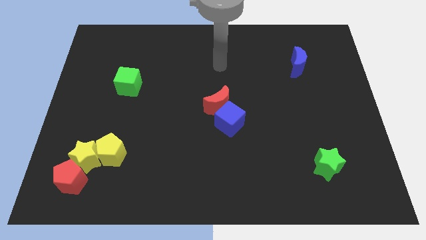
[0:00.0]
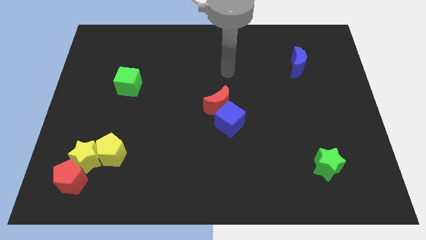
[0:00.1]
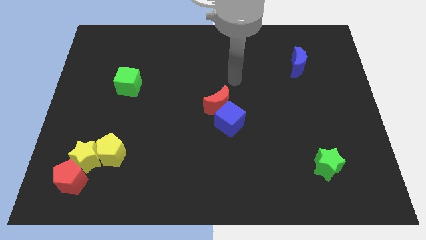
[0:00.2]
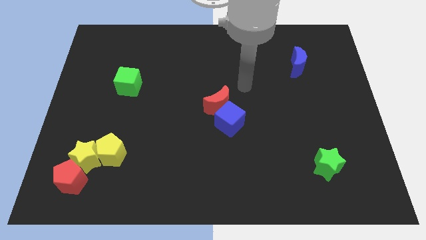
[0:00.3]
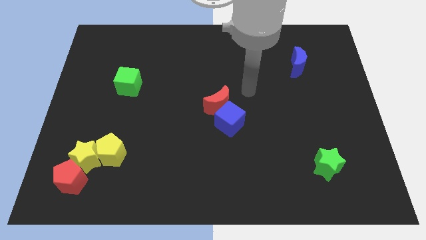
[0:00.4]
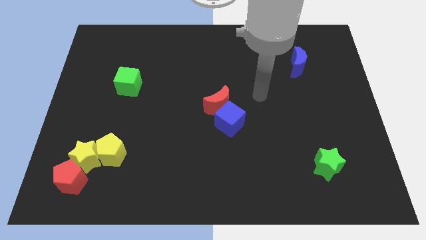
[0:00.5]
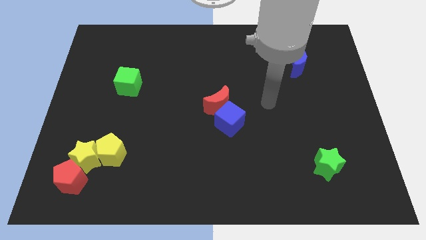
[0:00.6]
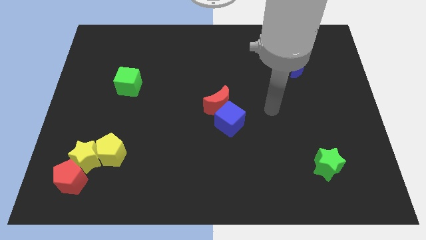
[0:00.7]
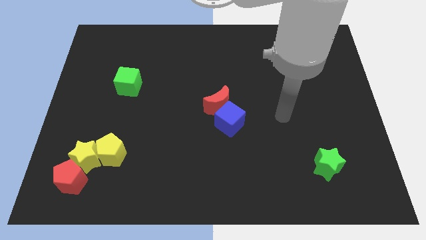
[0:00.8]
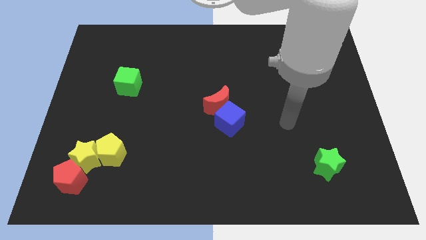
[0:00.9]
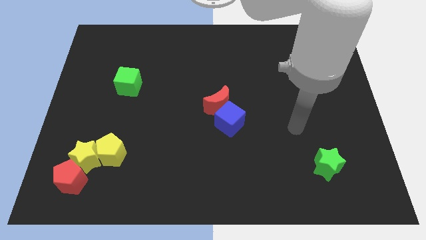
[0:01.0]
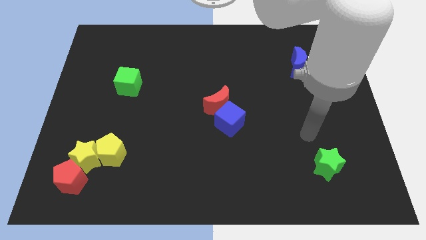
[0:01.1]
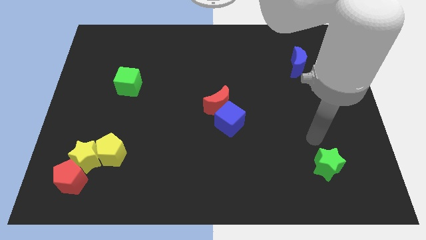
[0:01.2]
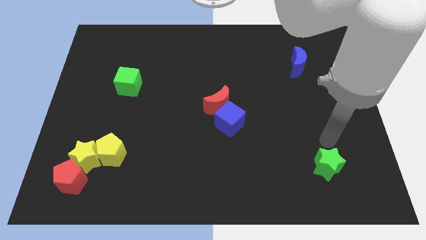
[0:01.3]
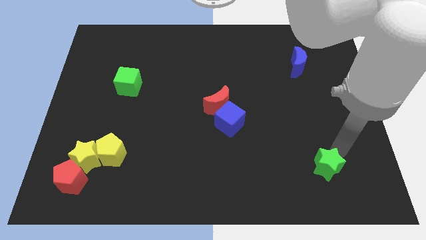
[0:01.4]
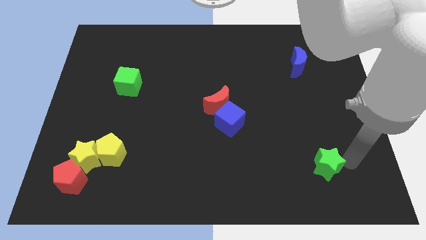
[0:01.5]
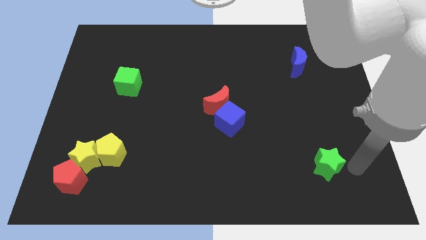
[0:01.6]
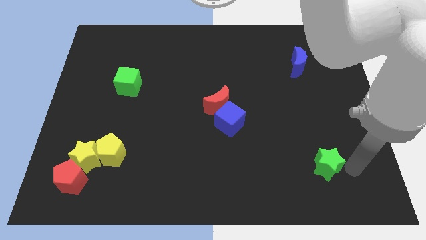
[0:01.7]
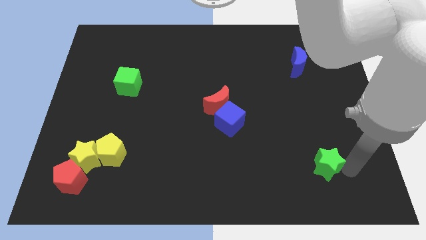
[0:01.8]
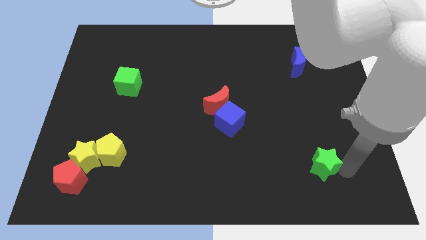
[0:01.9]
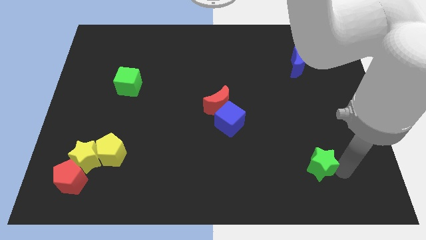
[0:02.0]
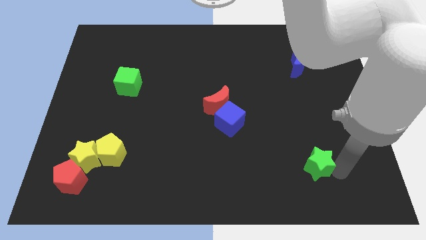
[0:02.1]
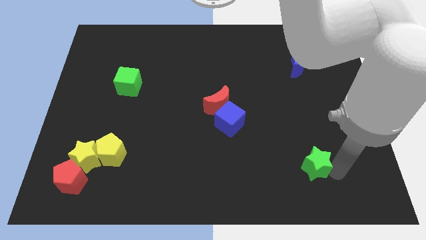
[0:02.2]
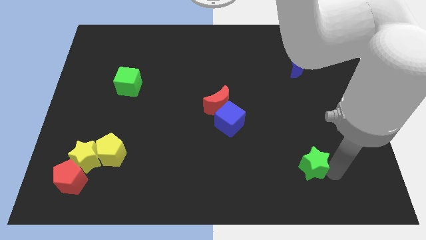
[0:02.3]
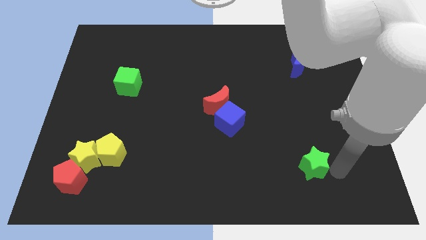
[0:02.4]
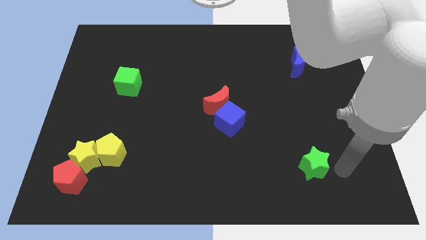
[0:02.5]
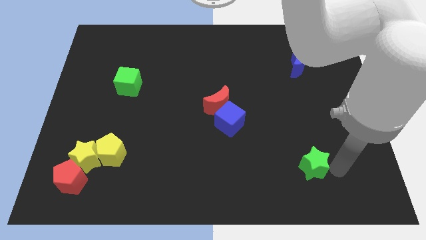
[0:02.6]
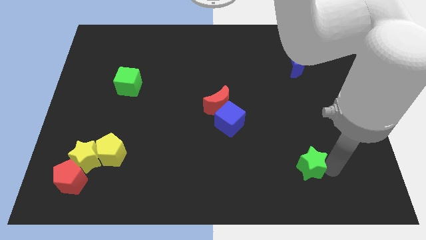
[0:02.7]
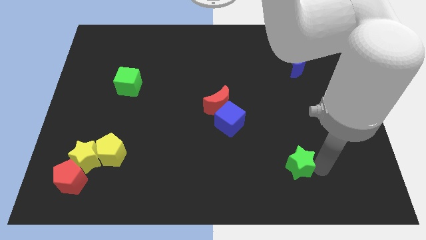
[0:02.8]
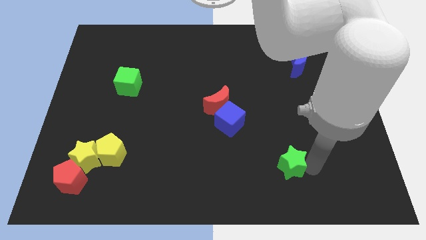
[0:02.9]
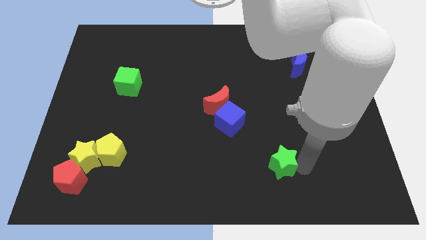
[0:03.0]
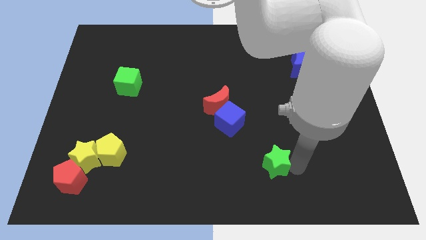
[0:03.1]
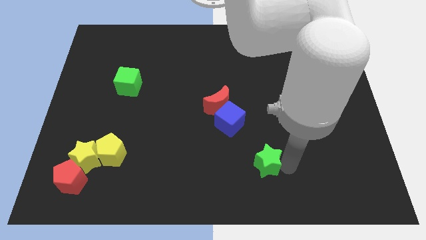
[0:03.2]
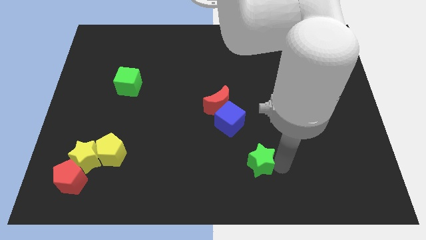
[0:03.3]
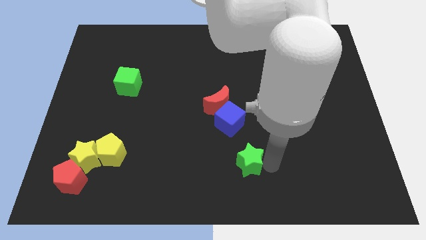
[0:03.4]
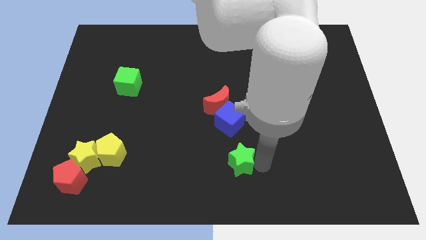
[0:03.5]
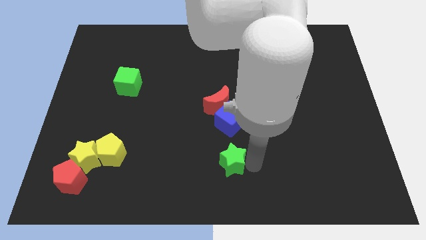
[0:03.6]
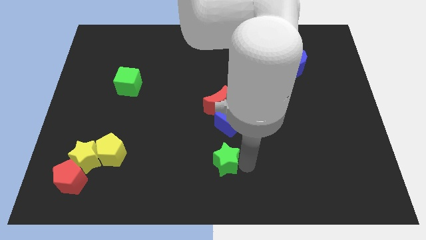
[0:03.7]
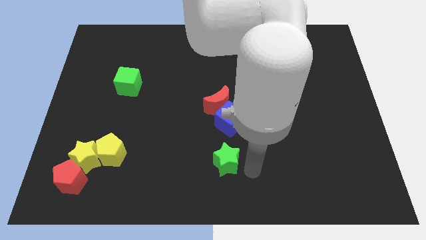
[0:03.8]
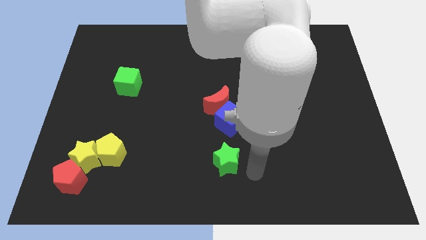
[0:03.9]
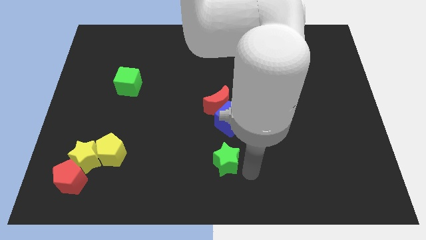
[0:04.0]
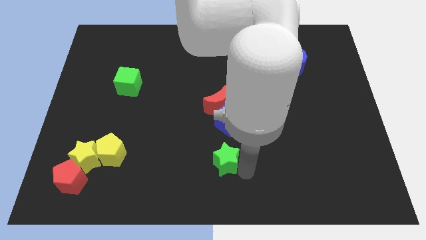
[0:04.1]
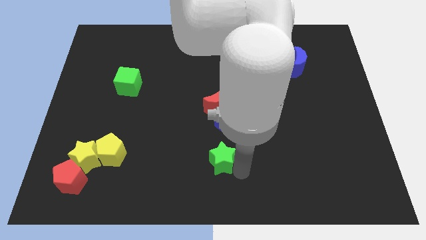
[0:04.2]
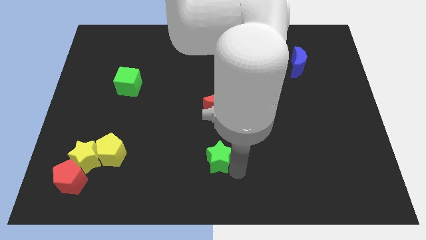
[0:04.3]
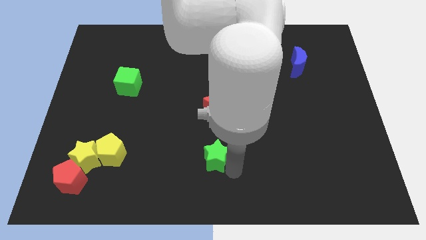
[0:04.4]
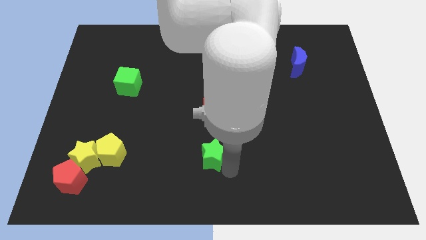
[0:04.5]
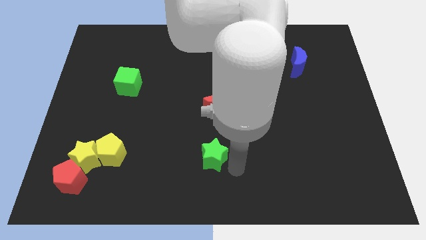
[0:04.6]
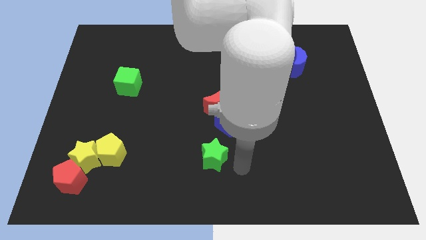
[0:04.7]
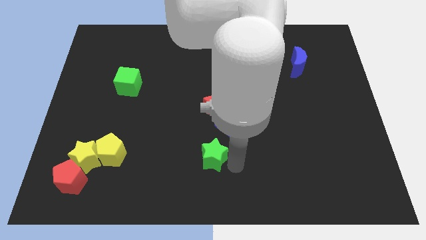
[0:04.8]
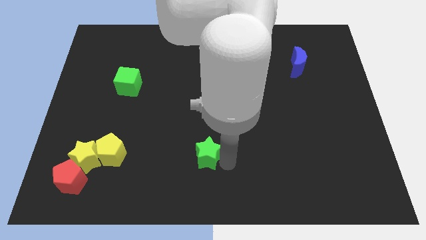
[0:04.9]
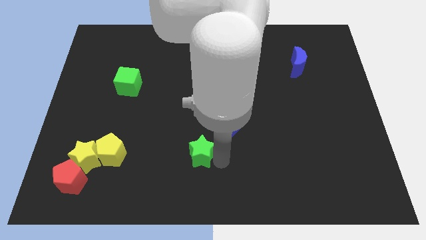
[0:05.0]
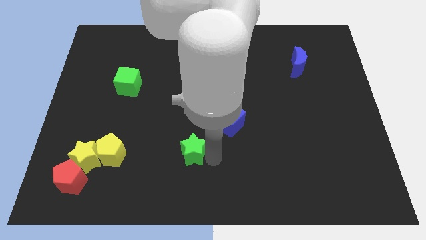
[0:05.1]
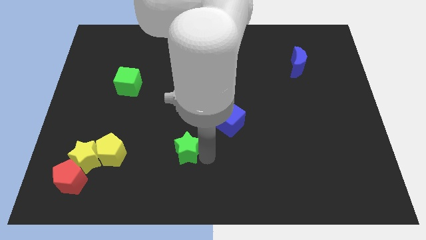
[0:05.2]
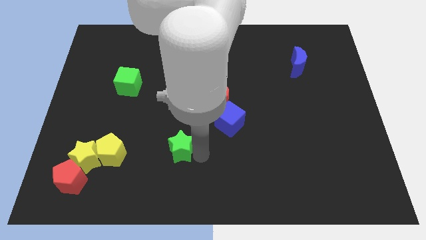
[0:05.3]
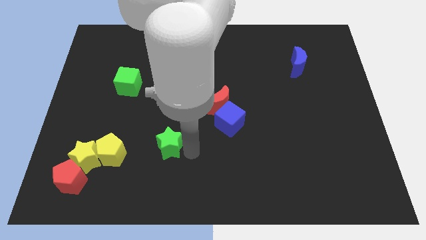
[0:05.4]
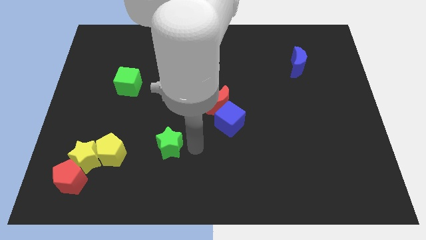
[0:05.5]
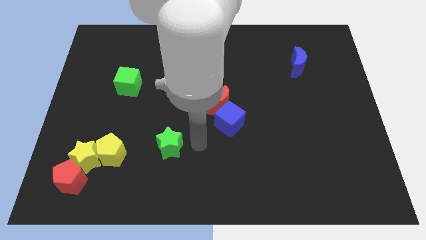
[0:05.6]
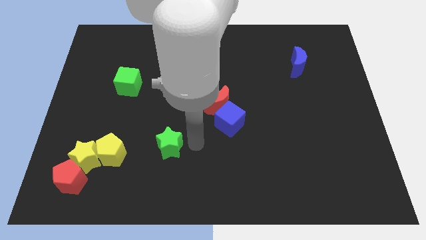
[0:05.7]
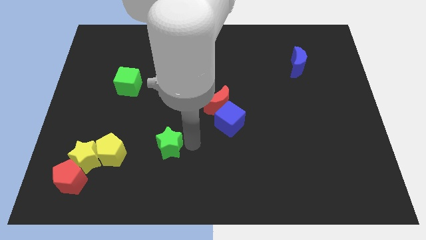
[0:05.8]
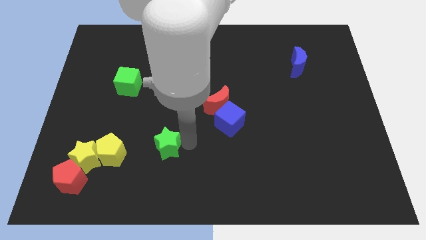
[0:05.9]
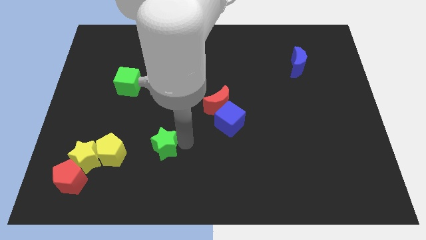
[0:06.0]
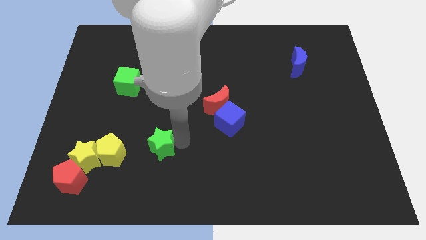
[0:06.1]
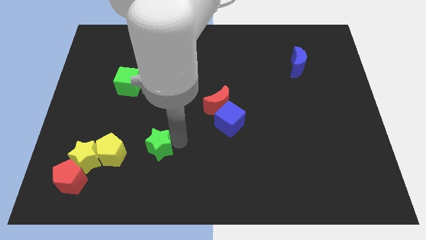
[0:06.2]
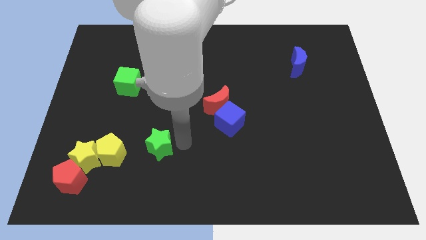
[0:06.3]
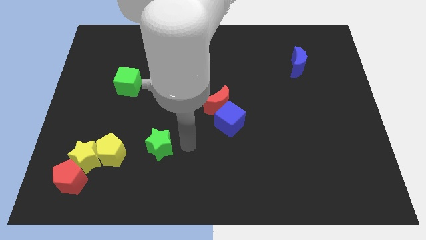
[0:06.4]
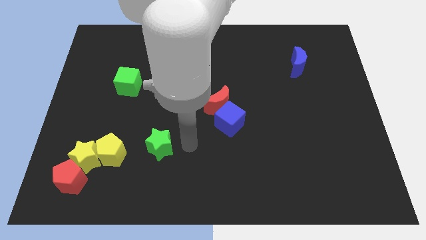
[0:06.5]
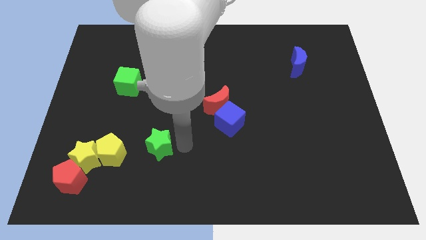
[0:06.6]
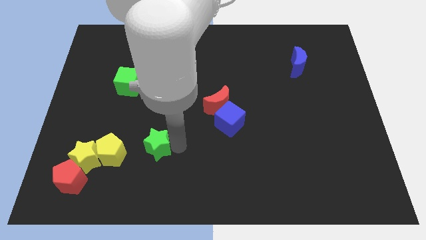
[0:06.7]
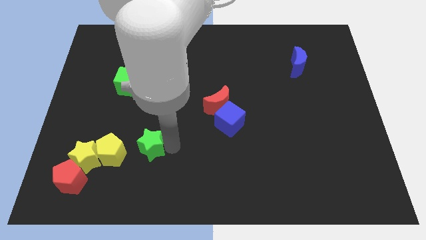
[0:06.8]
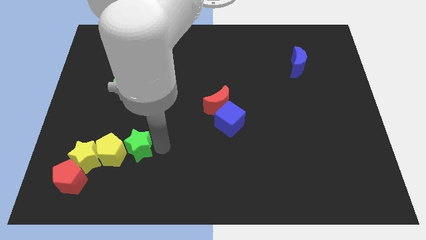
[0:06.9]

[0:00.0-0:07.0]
slide the green star close to the yellow pentagon

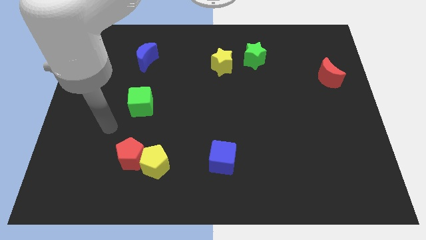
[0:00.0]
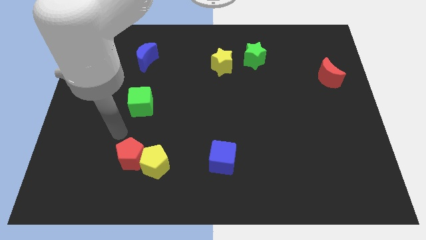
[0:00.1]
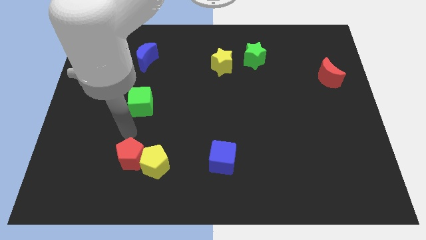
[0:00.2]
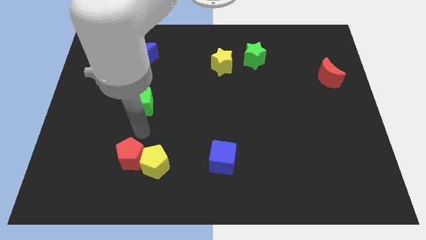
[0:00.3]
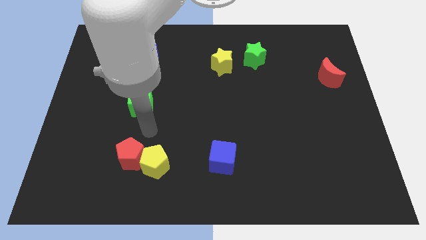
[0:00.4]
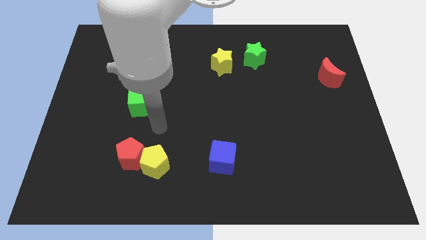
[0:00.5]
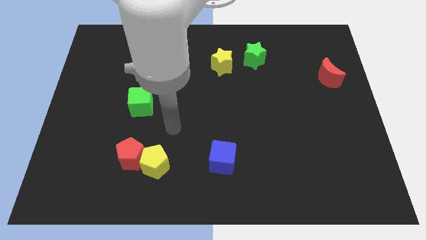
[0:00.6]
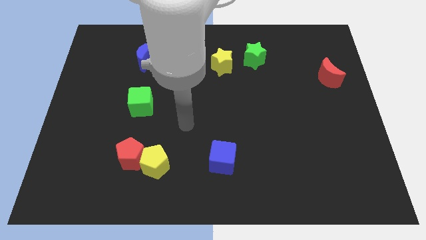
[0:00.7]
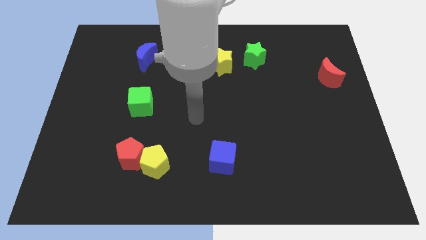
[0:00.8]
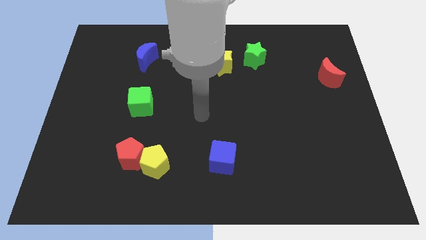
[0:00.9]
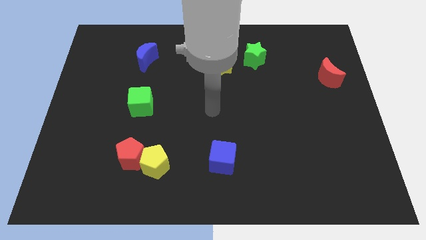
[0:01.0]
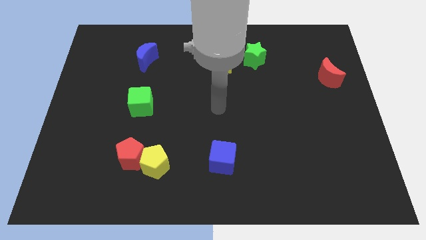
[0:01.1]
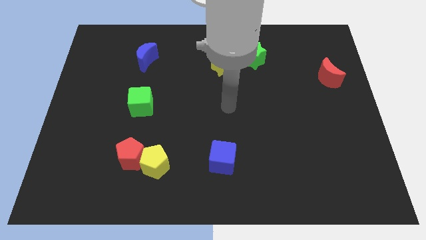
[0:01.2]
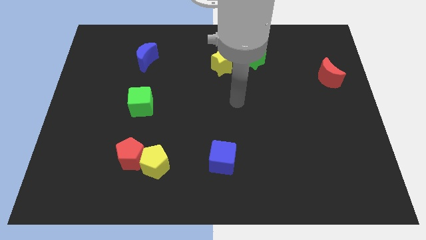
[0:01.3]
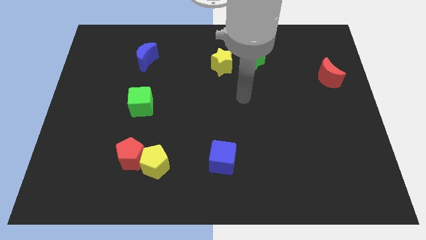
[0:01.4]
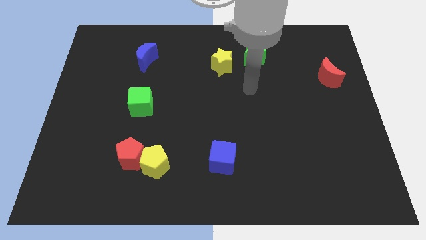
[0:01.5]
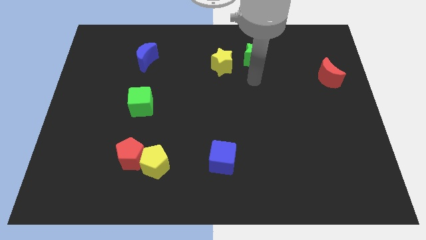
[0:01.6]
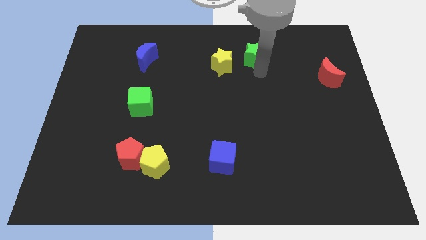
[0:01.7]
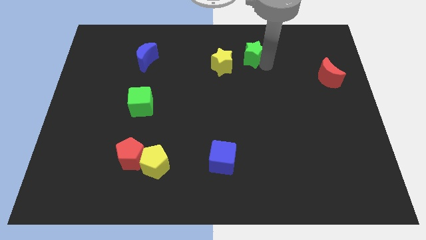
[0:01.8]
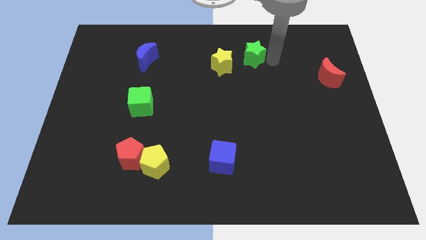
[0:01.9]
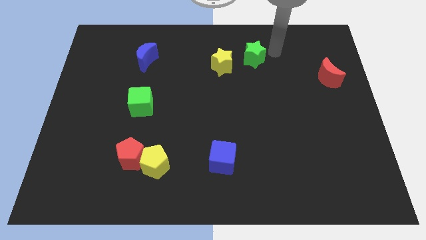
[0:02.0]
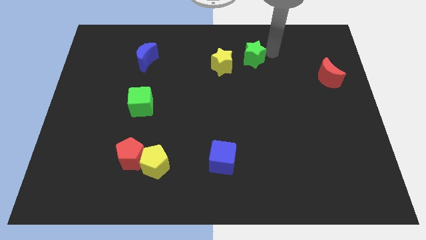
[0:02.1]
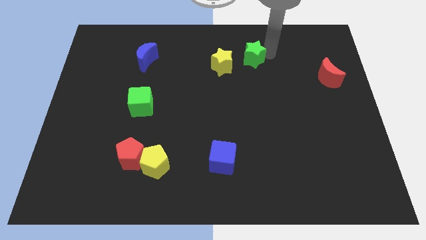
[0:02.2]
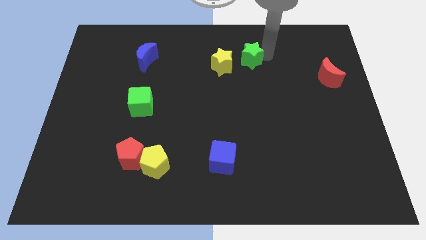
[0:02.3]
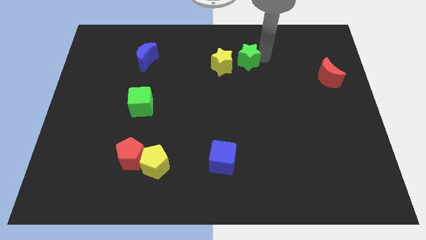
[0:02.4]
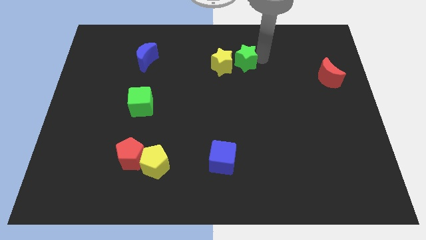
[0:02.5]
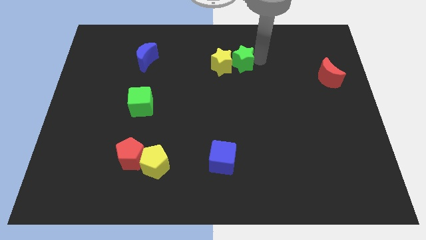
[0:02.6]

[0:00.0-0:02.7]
move the green star close to the yellow star
